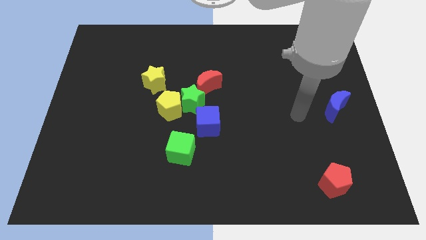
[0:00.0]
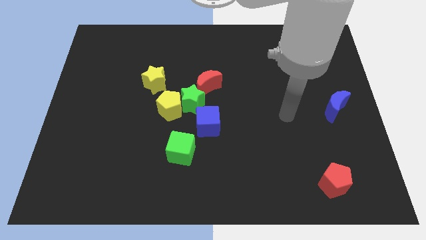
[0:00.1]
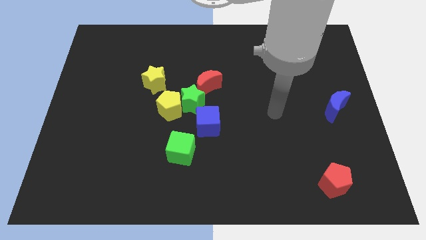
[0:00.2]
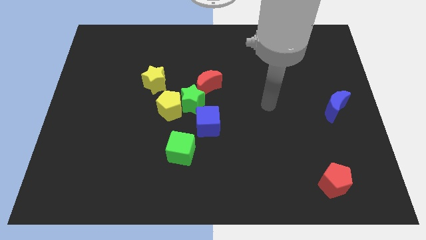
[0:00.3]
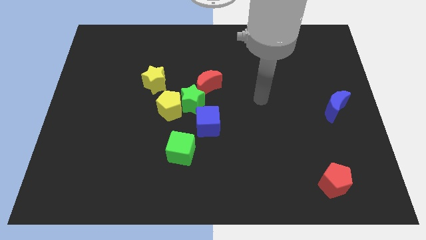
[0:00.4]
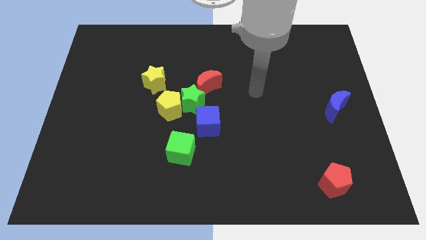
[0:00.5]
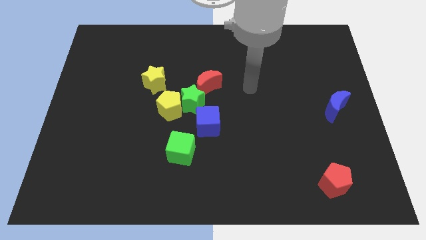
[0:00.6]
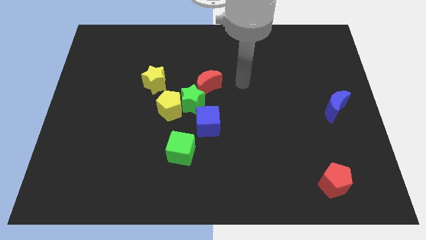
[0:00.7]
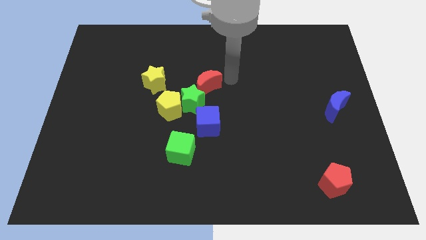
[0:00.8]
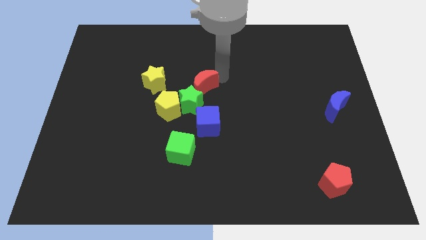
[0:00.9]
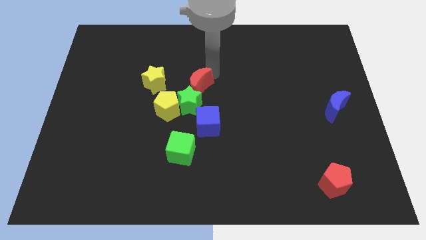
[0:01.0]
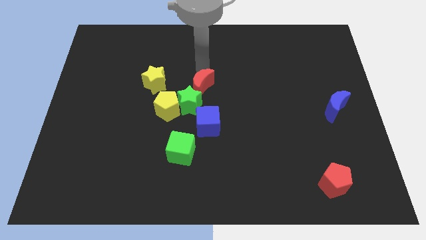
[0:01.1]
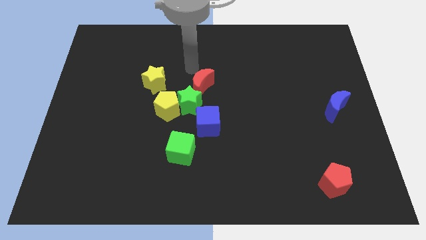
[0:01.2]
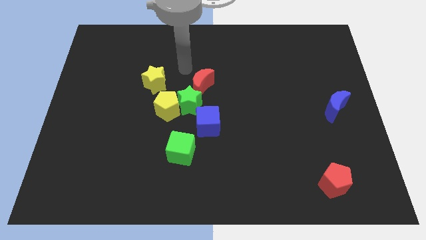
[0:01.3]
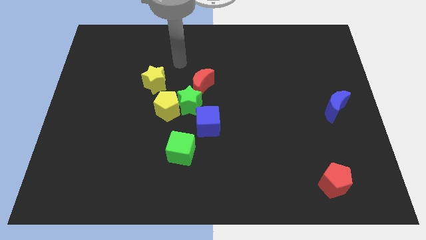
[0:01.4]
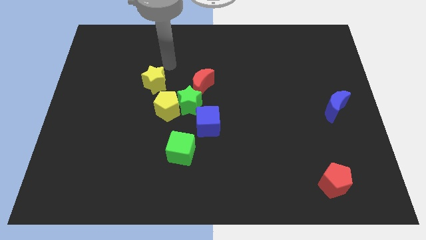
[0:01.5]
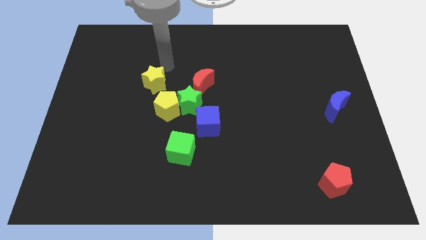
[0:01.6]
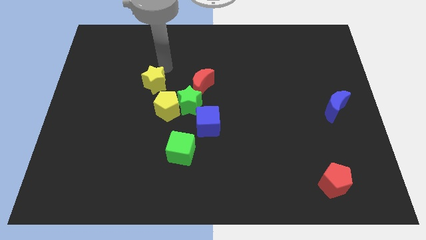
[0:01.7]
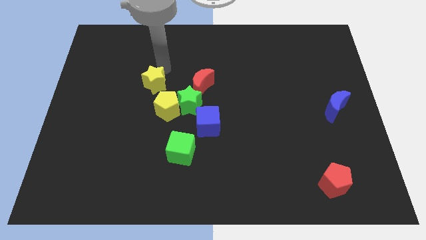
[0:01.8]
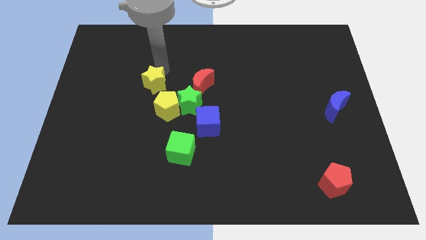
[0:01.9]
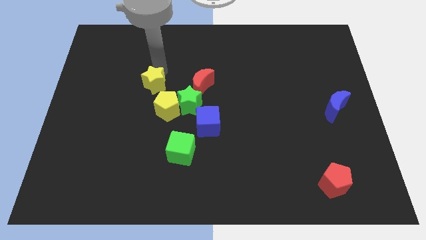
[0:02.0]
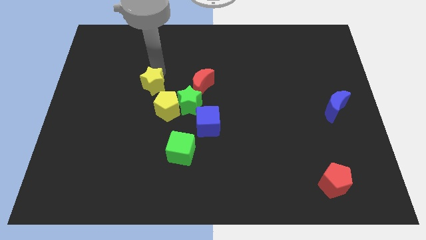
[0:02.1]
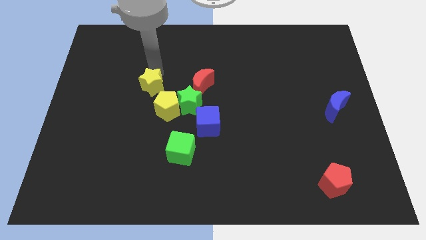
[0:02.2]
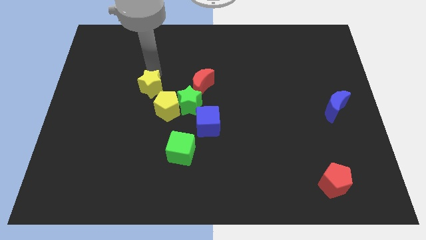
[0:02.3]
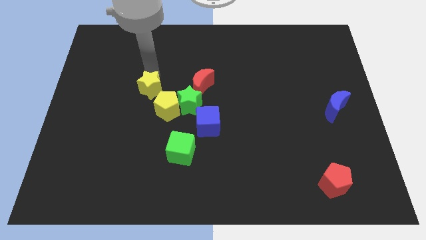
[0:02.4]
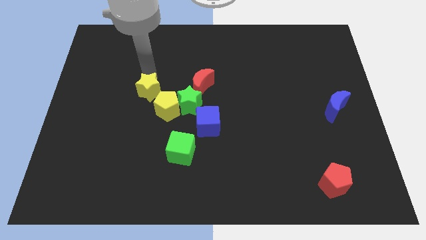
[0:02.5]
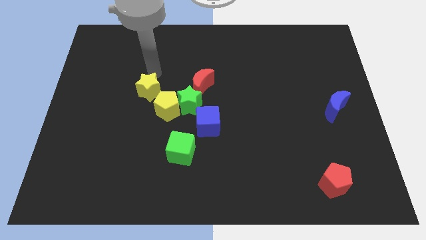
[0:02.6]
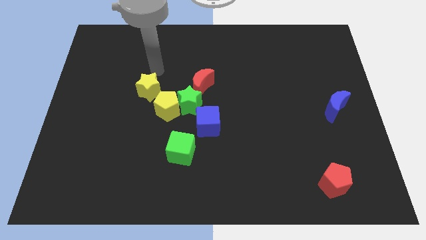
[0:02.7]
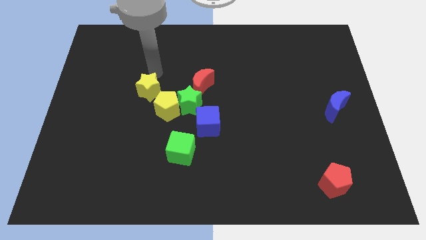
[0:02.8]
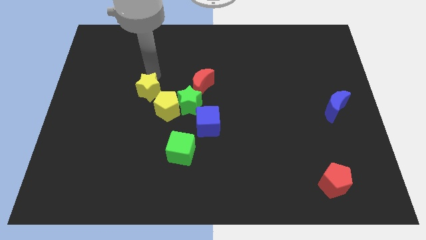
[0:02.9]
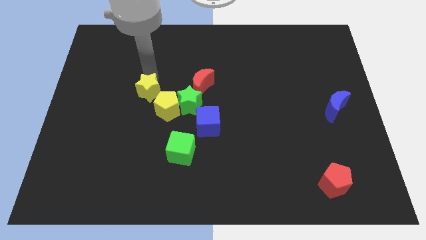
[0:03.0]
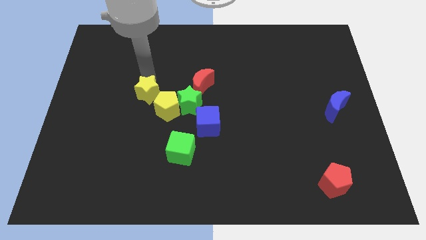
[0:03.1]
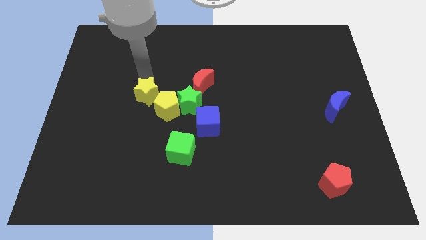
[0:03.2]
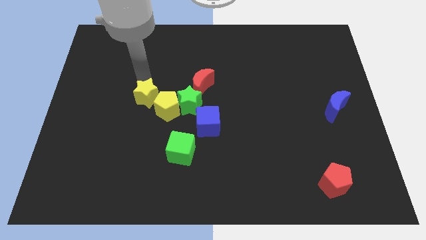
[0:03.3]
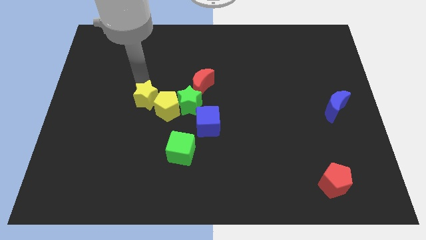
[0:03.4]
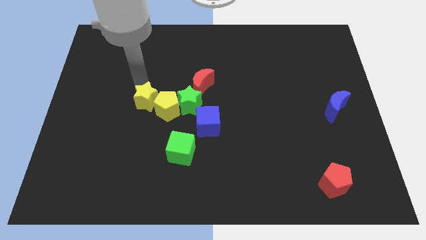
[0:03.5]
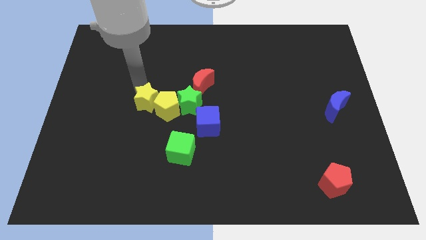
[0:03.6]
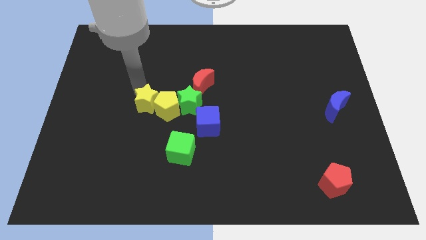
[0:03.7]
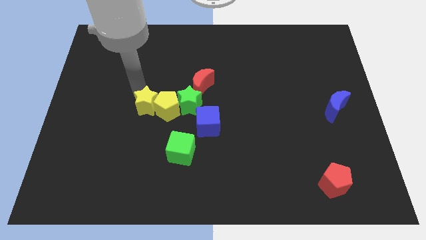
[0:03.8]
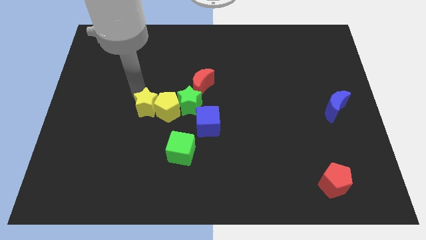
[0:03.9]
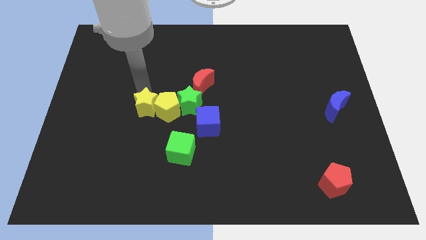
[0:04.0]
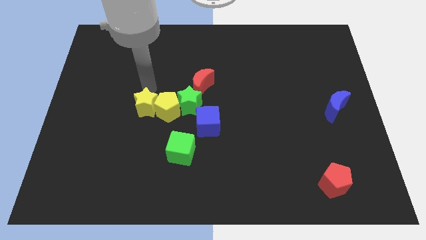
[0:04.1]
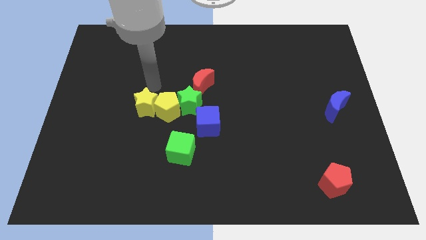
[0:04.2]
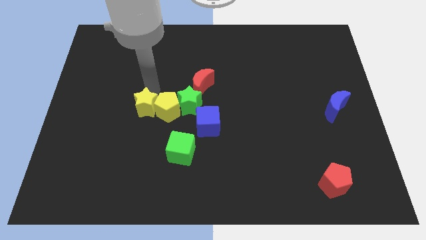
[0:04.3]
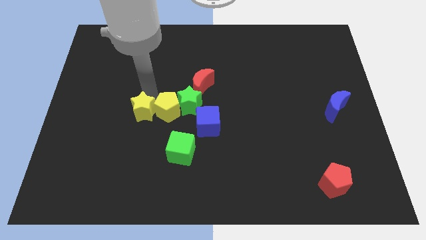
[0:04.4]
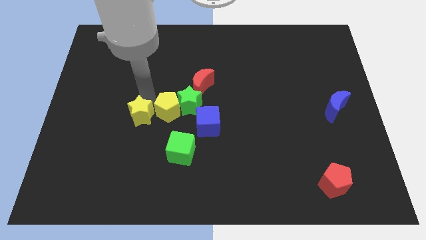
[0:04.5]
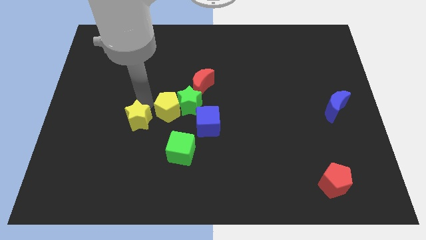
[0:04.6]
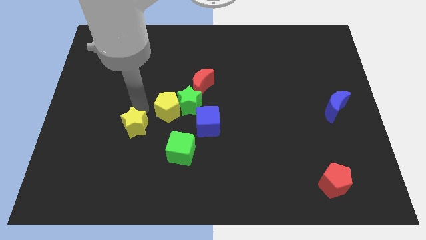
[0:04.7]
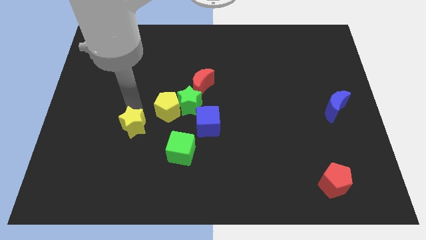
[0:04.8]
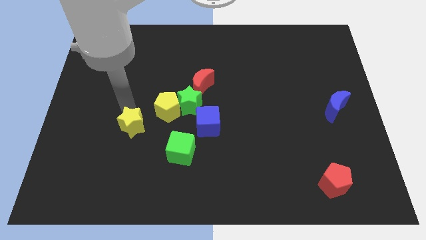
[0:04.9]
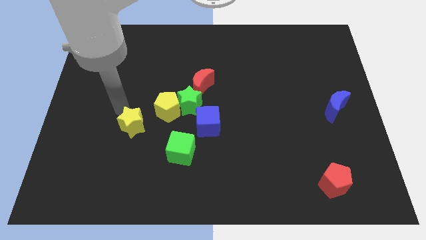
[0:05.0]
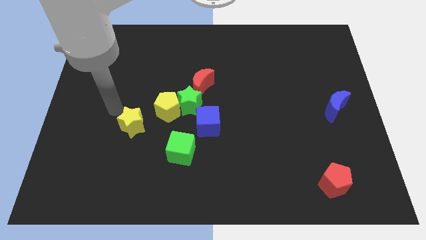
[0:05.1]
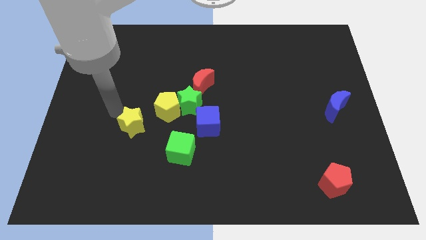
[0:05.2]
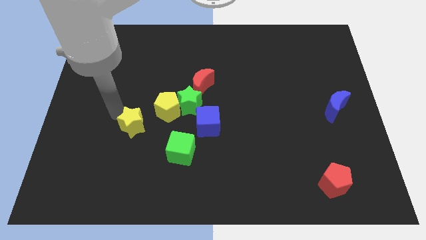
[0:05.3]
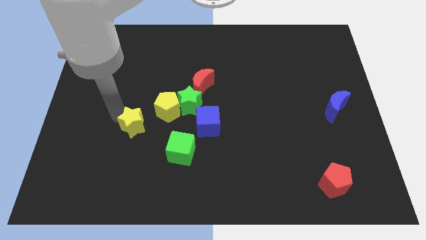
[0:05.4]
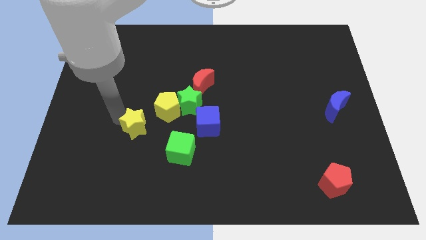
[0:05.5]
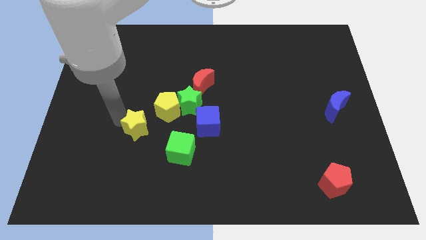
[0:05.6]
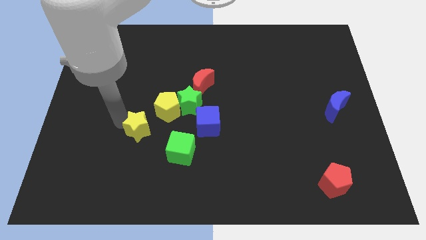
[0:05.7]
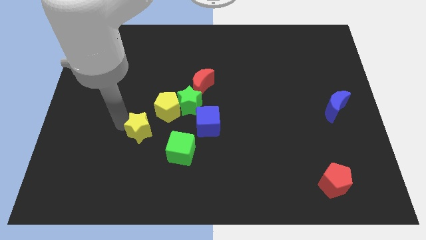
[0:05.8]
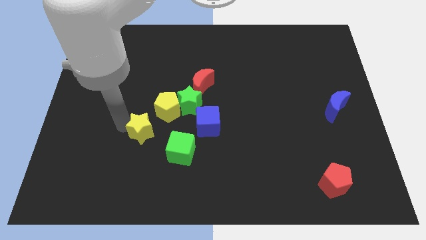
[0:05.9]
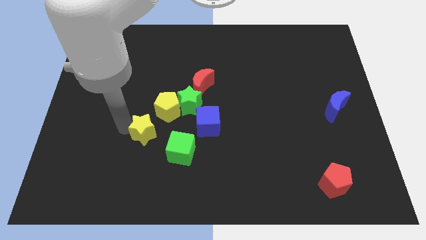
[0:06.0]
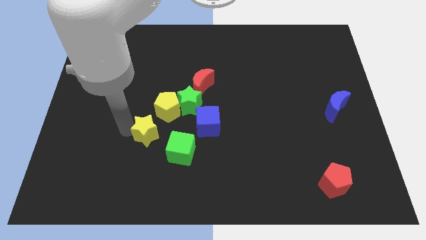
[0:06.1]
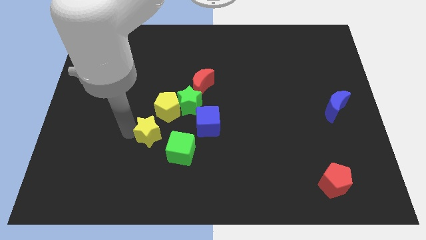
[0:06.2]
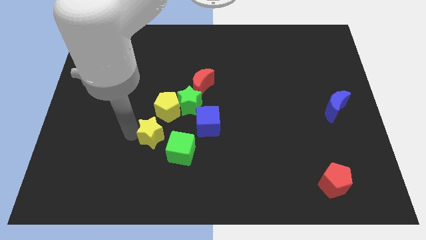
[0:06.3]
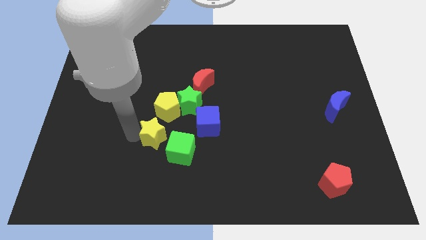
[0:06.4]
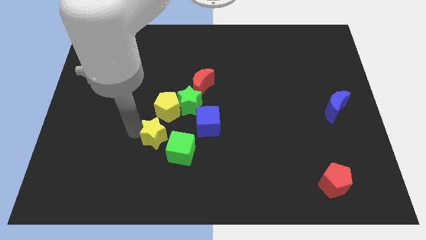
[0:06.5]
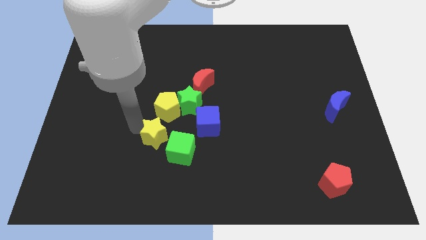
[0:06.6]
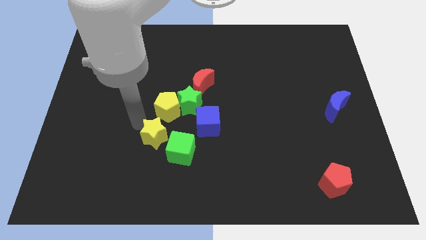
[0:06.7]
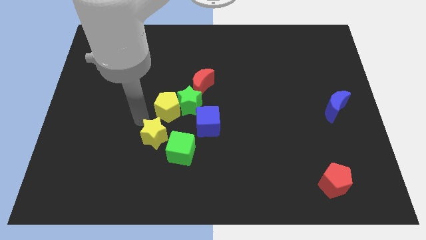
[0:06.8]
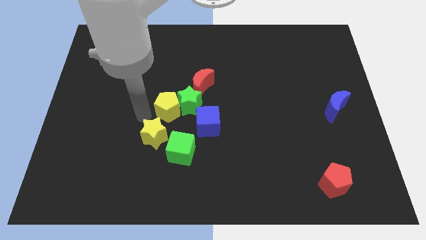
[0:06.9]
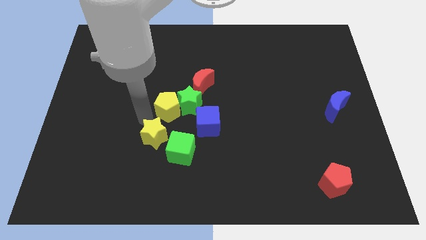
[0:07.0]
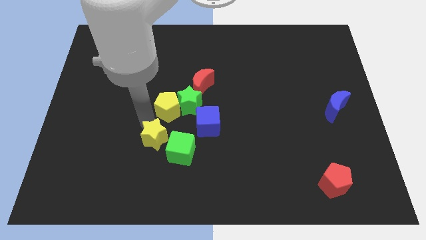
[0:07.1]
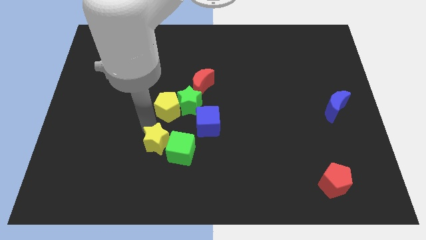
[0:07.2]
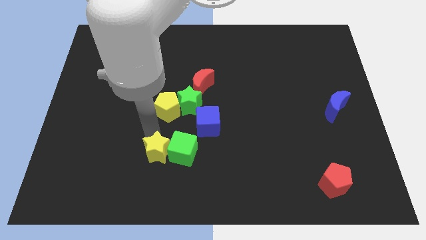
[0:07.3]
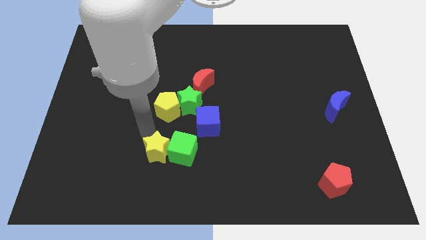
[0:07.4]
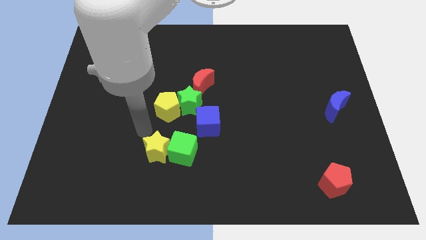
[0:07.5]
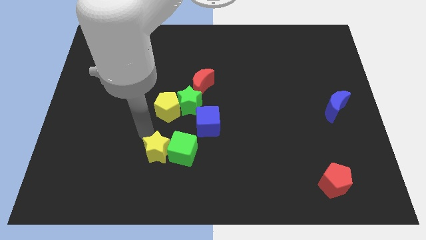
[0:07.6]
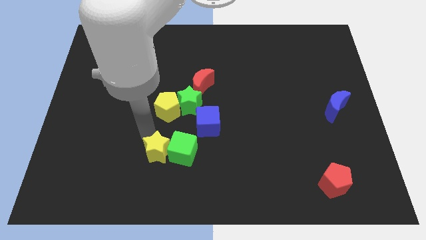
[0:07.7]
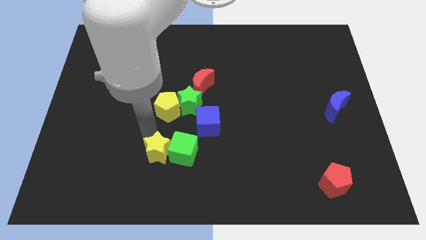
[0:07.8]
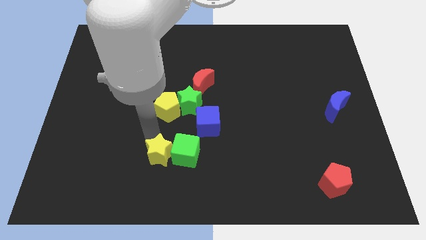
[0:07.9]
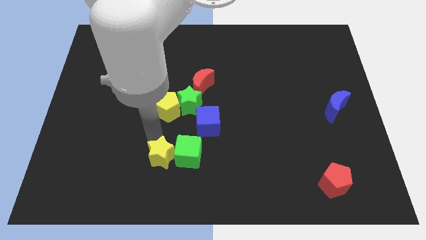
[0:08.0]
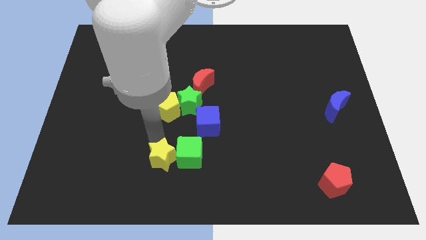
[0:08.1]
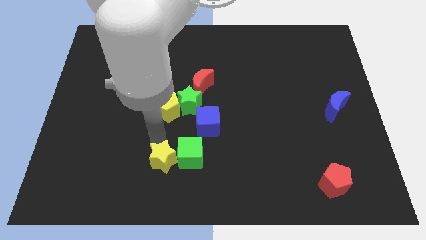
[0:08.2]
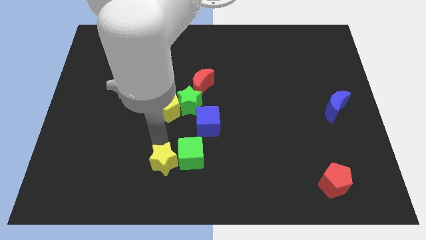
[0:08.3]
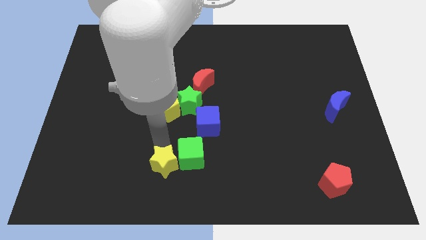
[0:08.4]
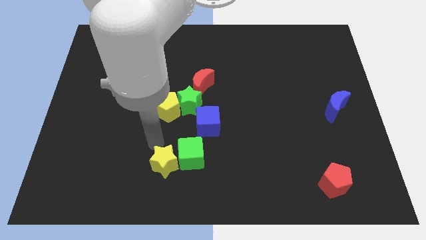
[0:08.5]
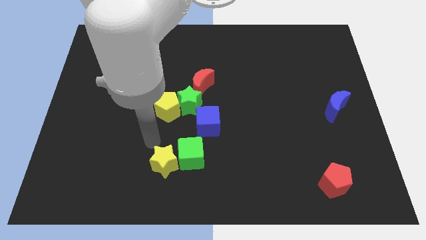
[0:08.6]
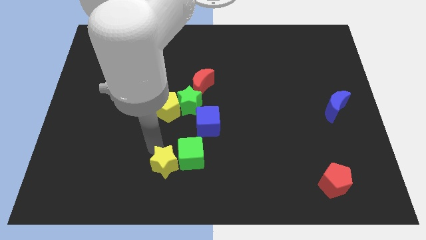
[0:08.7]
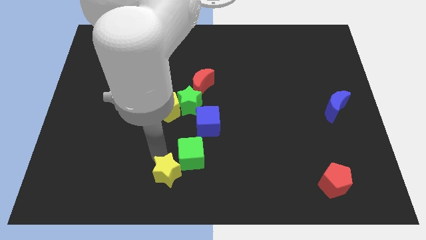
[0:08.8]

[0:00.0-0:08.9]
push the yellow star to the bottom side
